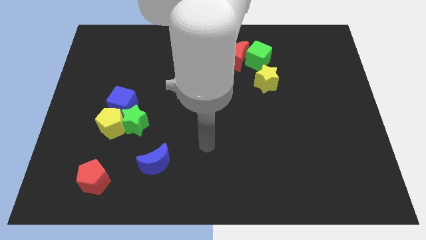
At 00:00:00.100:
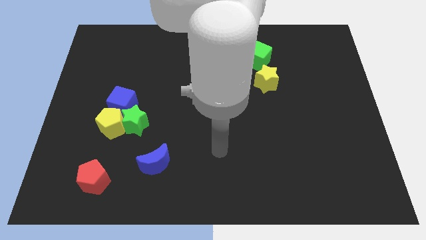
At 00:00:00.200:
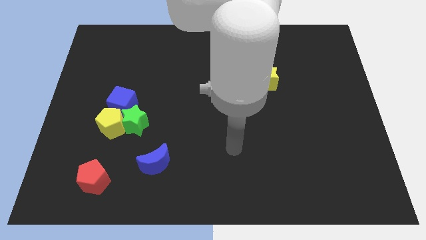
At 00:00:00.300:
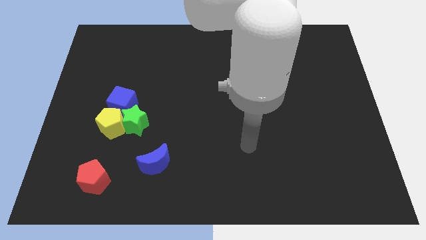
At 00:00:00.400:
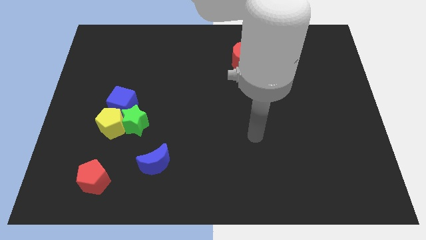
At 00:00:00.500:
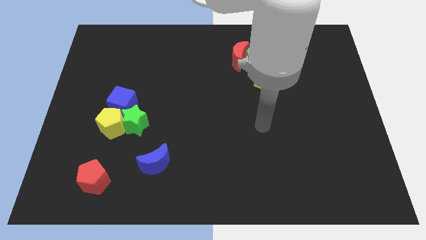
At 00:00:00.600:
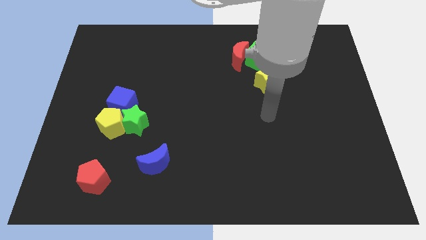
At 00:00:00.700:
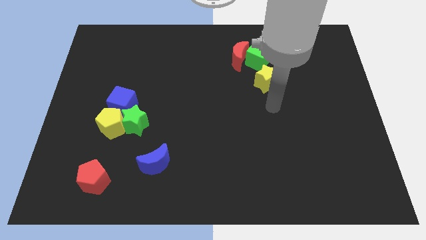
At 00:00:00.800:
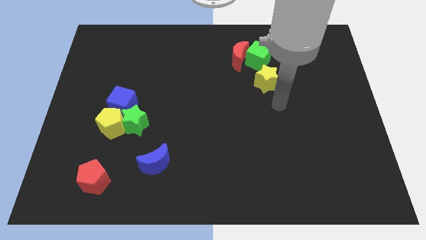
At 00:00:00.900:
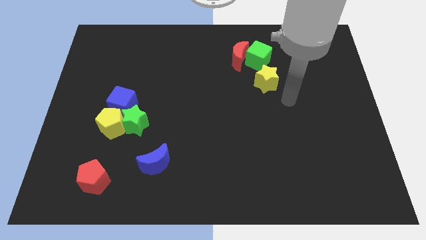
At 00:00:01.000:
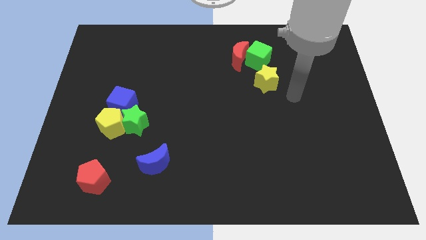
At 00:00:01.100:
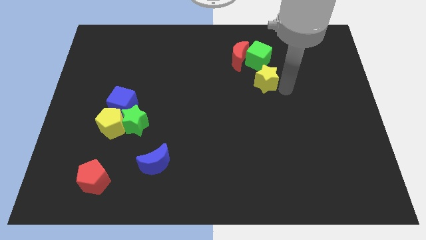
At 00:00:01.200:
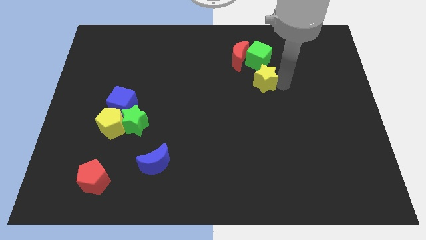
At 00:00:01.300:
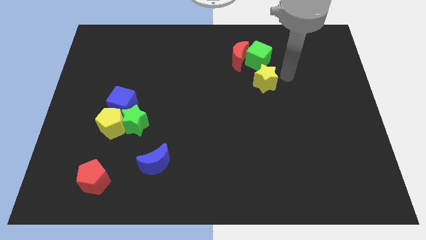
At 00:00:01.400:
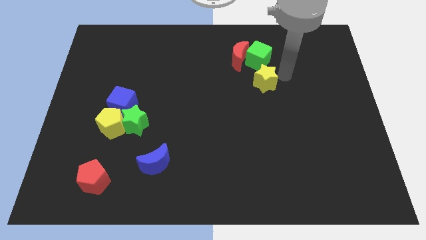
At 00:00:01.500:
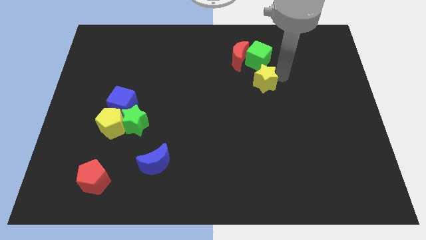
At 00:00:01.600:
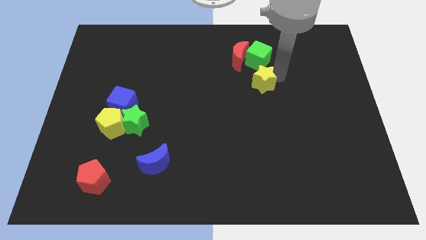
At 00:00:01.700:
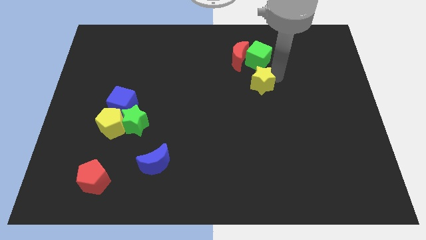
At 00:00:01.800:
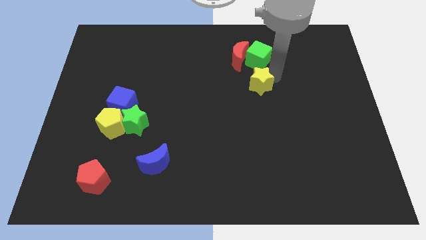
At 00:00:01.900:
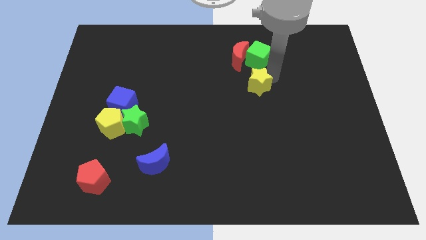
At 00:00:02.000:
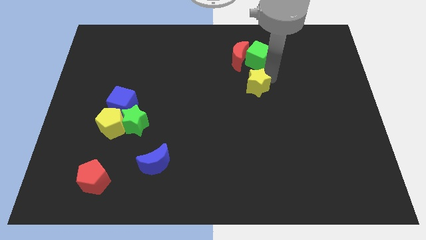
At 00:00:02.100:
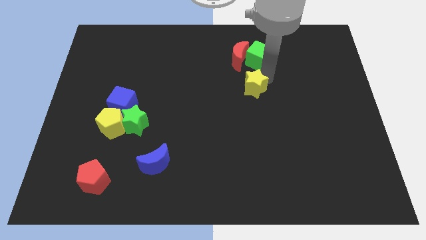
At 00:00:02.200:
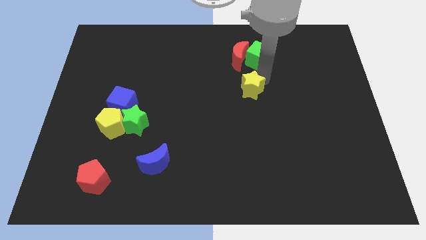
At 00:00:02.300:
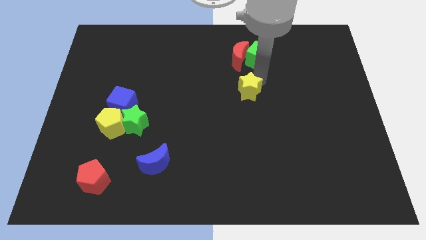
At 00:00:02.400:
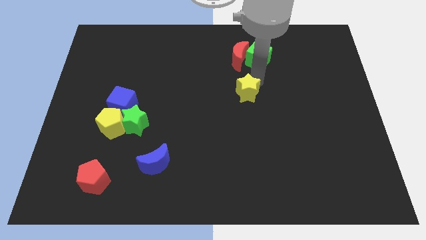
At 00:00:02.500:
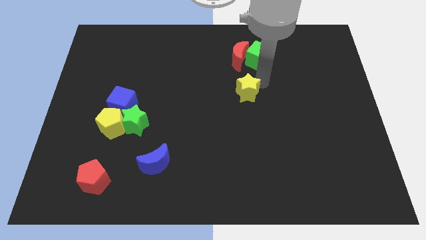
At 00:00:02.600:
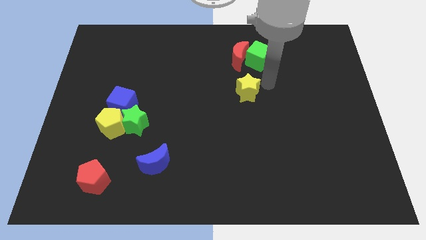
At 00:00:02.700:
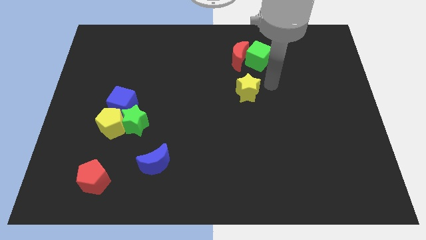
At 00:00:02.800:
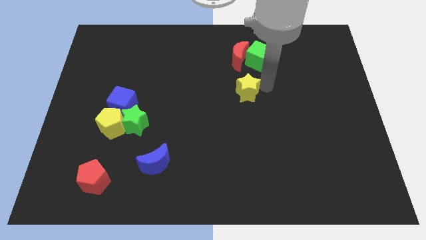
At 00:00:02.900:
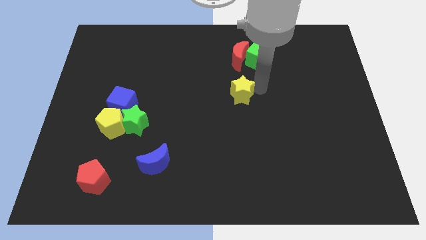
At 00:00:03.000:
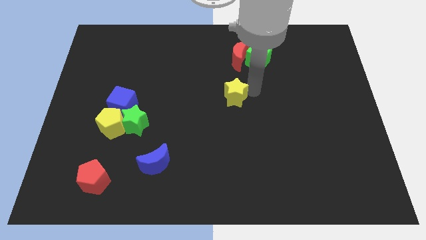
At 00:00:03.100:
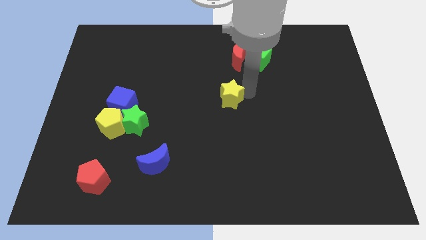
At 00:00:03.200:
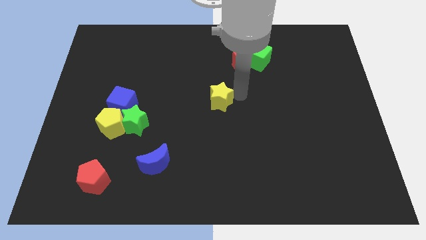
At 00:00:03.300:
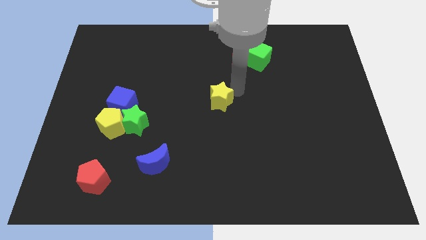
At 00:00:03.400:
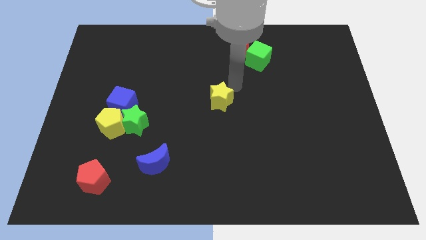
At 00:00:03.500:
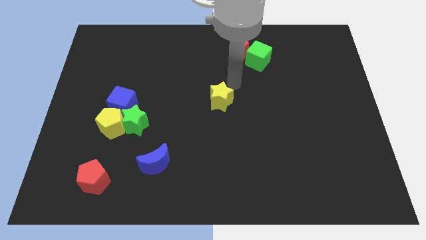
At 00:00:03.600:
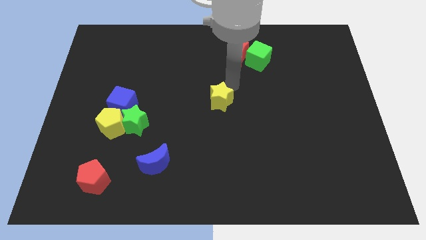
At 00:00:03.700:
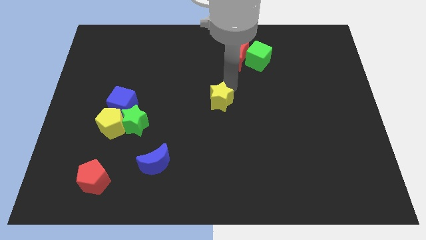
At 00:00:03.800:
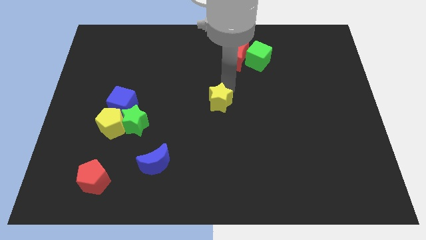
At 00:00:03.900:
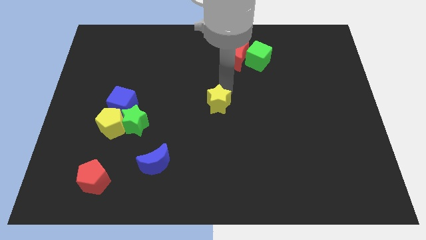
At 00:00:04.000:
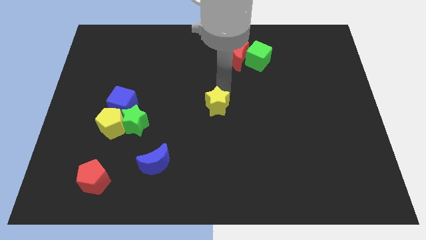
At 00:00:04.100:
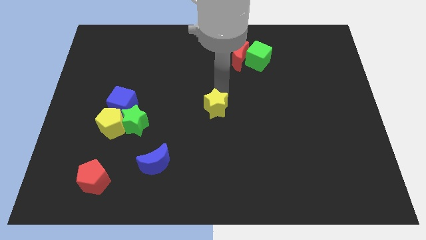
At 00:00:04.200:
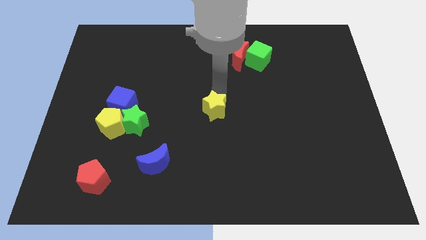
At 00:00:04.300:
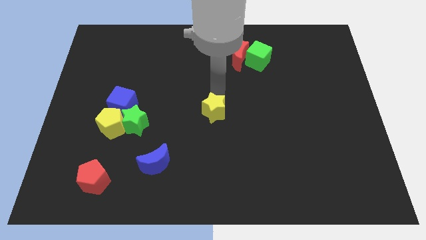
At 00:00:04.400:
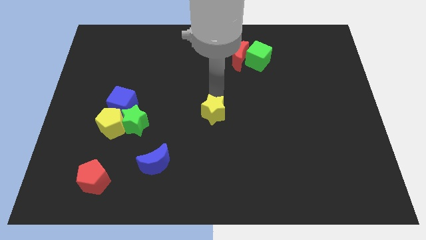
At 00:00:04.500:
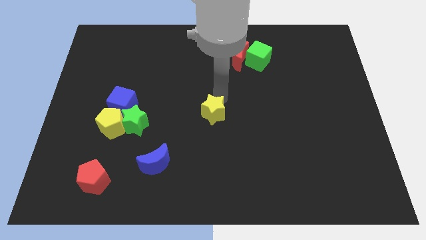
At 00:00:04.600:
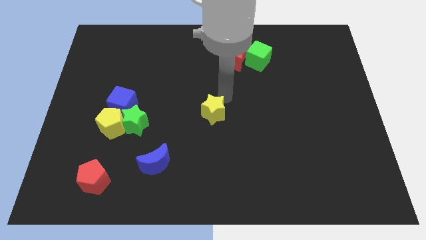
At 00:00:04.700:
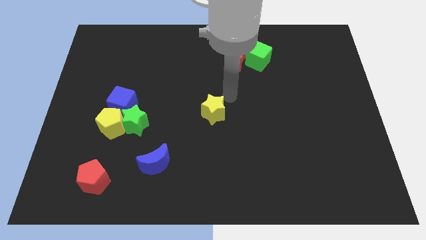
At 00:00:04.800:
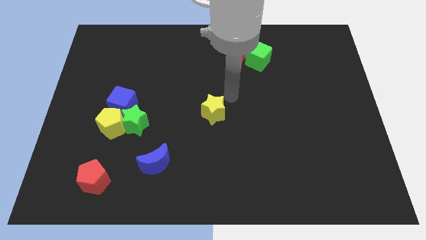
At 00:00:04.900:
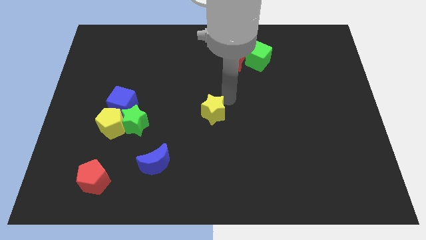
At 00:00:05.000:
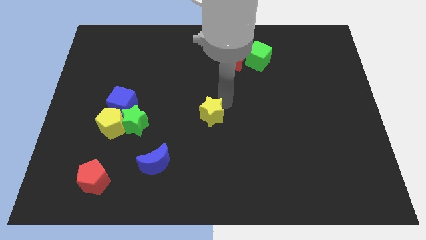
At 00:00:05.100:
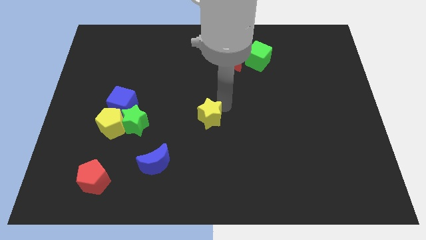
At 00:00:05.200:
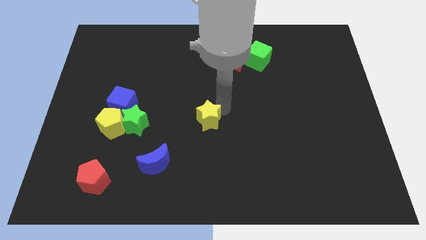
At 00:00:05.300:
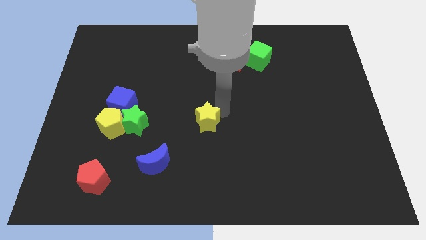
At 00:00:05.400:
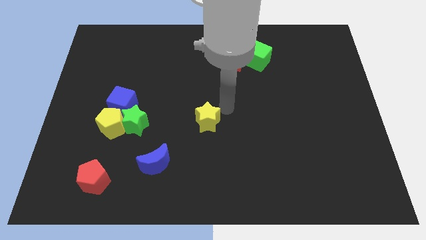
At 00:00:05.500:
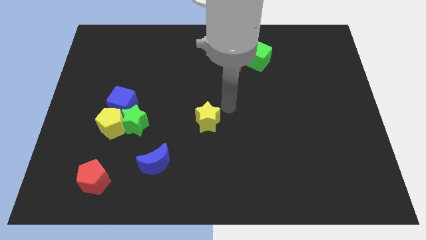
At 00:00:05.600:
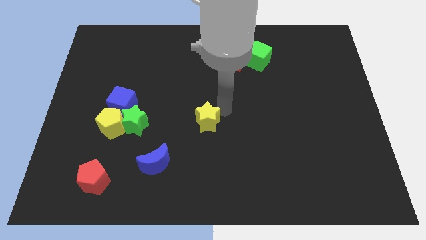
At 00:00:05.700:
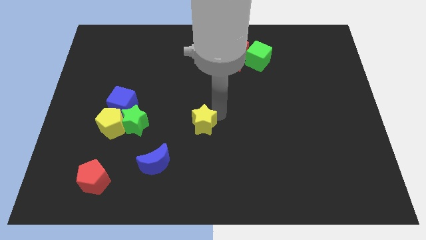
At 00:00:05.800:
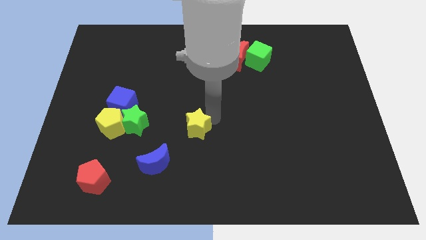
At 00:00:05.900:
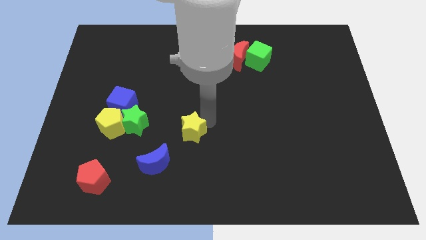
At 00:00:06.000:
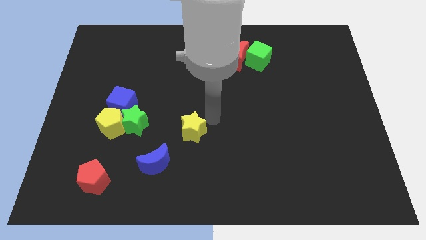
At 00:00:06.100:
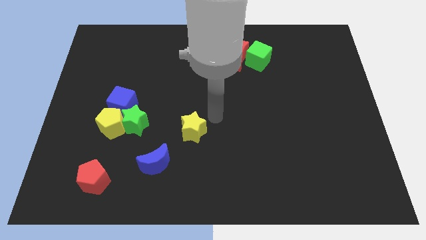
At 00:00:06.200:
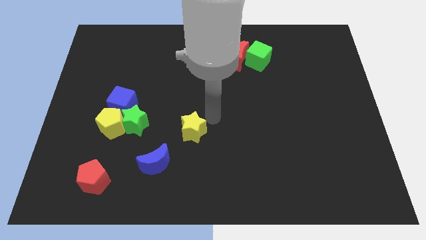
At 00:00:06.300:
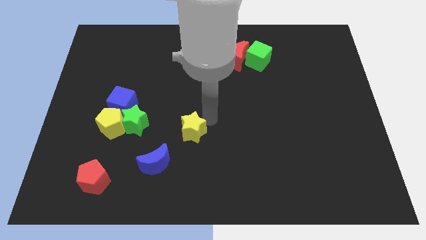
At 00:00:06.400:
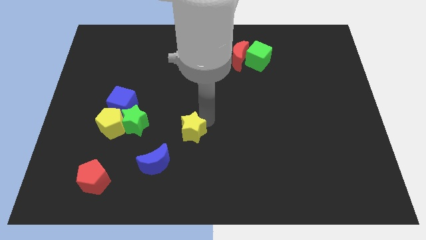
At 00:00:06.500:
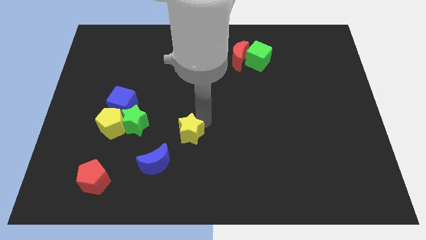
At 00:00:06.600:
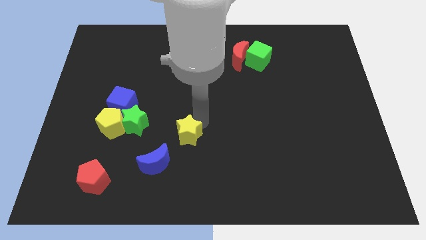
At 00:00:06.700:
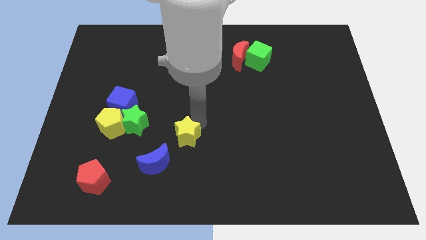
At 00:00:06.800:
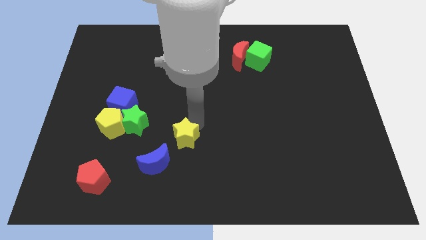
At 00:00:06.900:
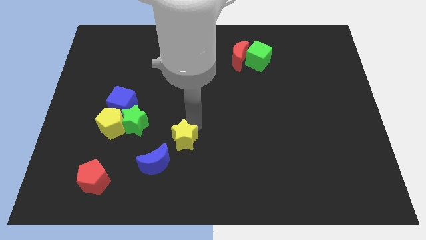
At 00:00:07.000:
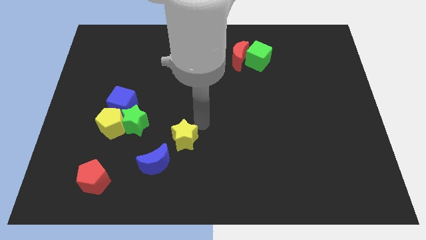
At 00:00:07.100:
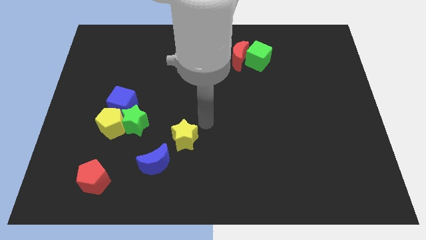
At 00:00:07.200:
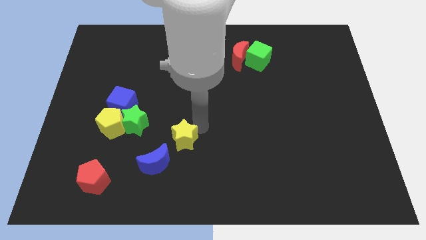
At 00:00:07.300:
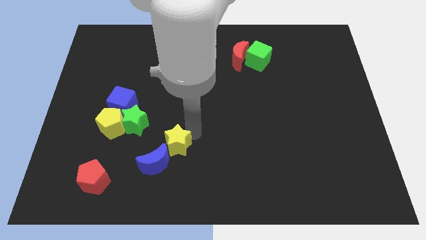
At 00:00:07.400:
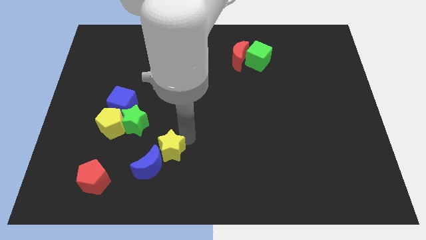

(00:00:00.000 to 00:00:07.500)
put the yellow star to the blue moon
